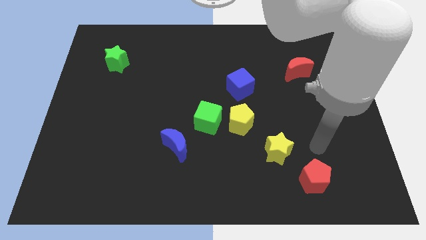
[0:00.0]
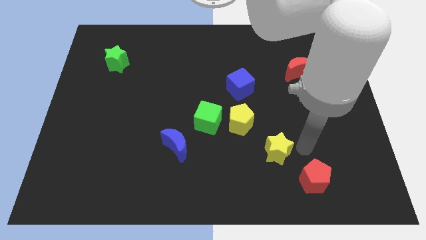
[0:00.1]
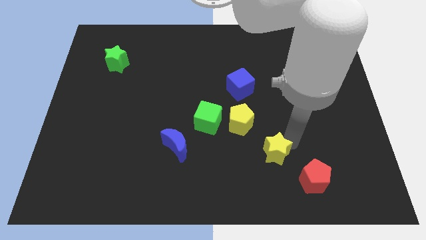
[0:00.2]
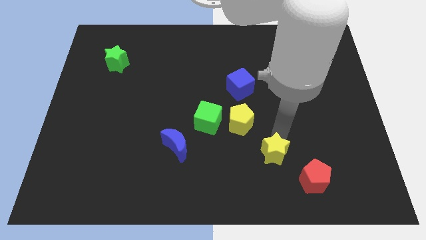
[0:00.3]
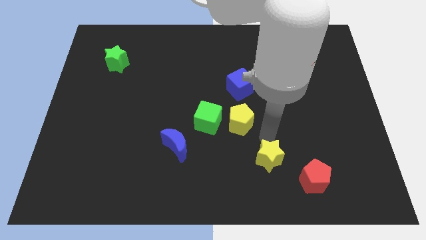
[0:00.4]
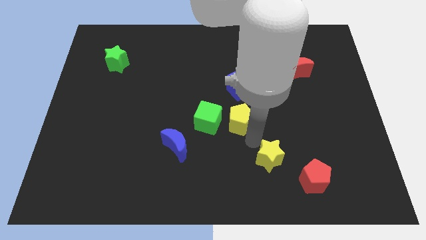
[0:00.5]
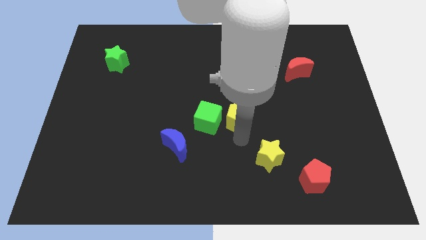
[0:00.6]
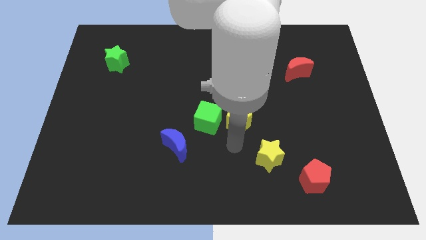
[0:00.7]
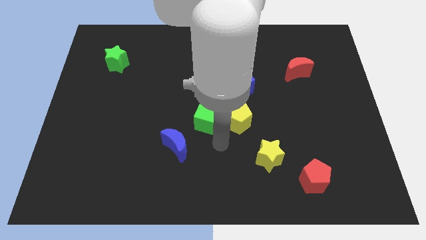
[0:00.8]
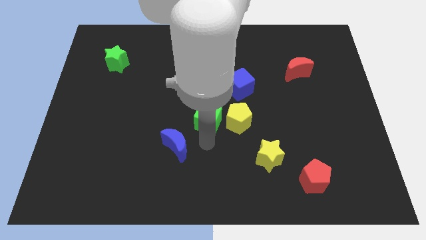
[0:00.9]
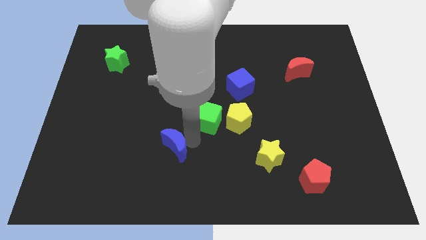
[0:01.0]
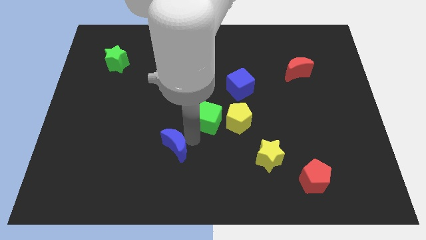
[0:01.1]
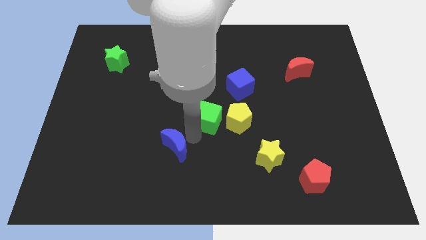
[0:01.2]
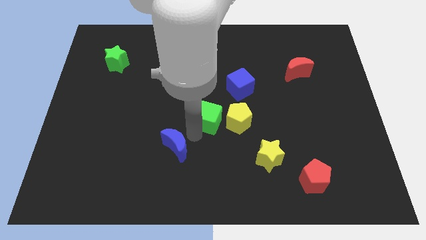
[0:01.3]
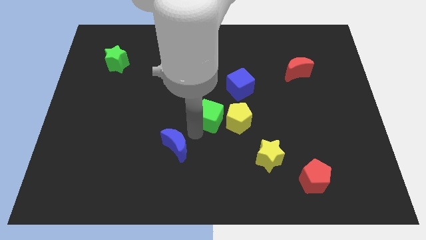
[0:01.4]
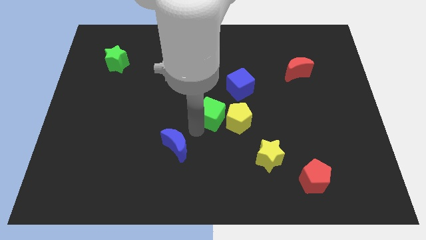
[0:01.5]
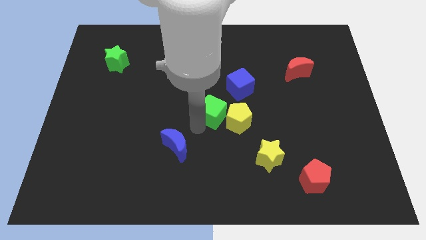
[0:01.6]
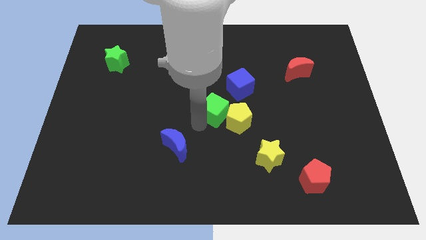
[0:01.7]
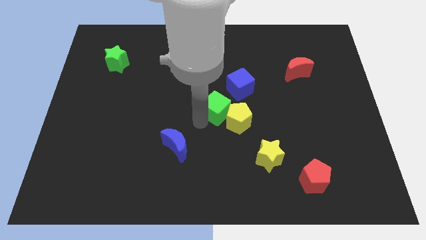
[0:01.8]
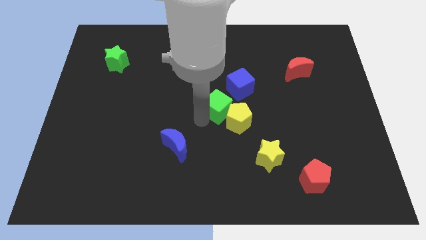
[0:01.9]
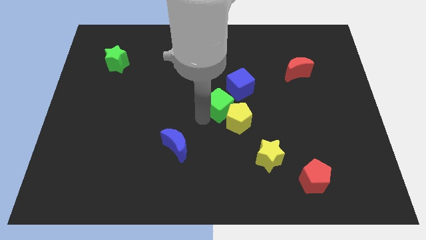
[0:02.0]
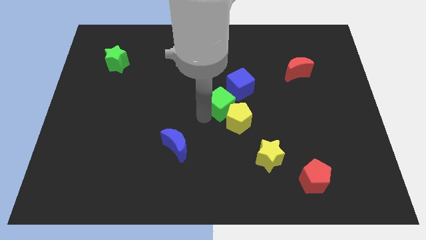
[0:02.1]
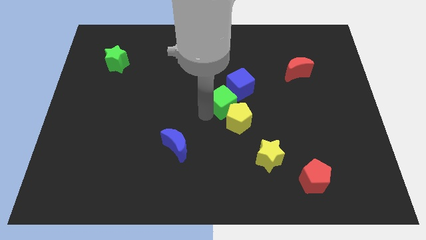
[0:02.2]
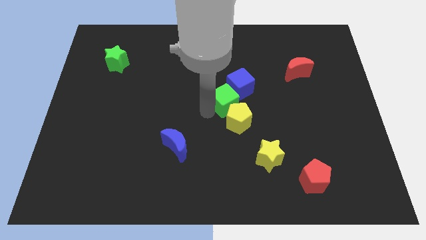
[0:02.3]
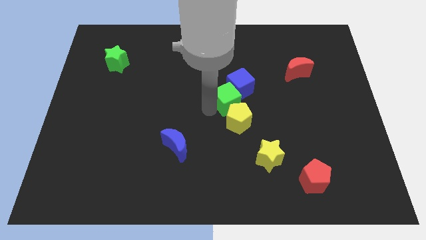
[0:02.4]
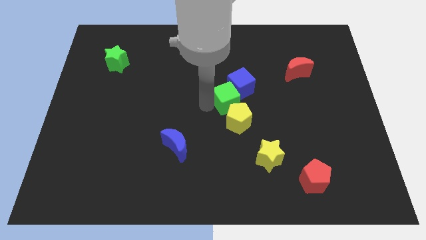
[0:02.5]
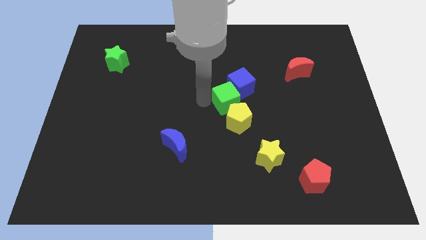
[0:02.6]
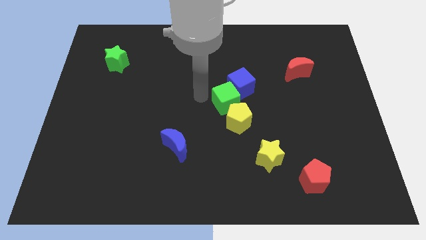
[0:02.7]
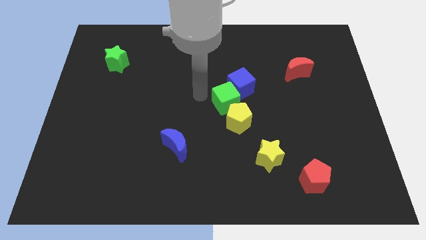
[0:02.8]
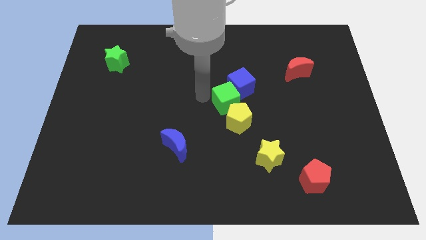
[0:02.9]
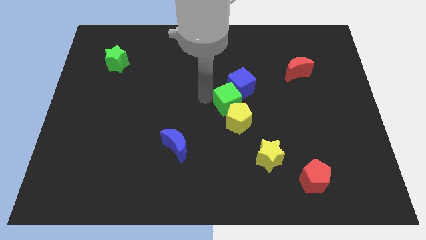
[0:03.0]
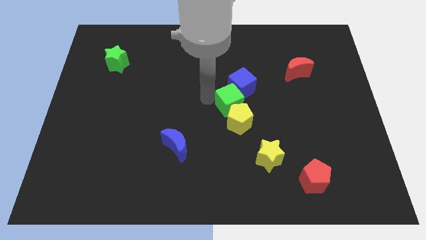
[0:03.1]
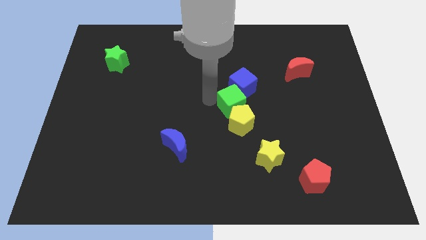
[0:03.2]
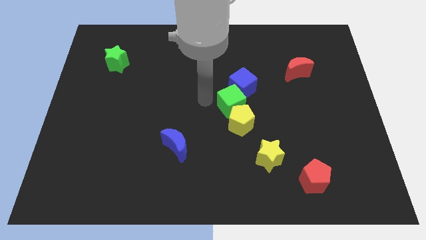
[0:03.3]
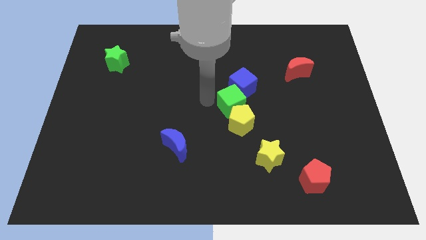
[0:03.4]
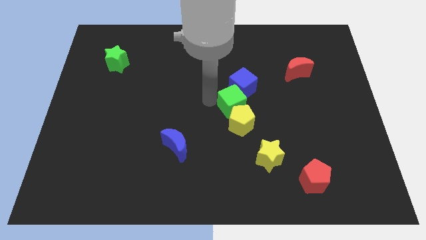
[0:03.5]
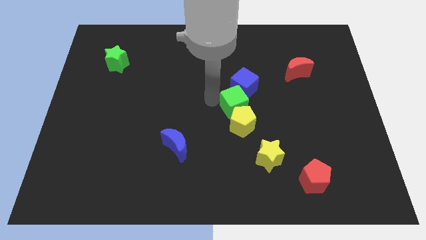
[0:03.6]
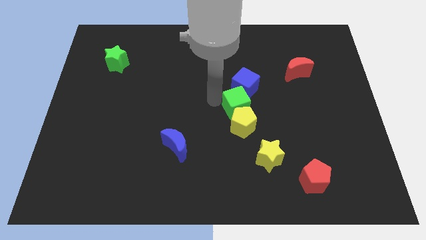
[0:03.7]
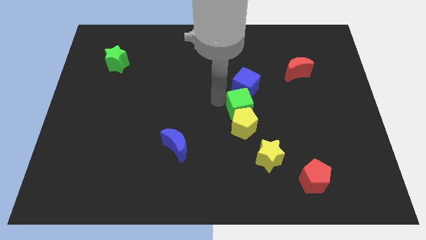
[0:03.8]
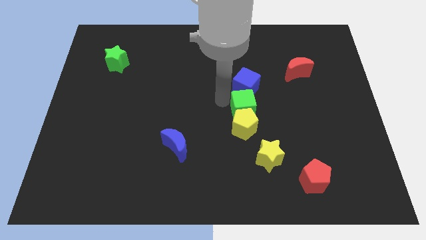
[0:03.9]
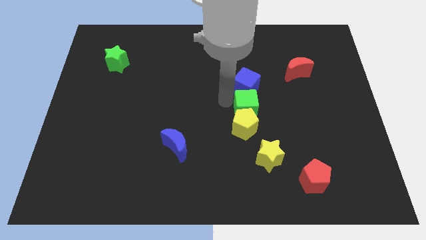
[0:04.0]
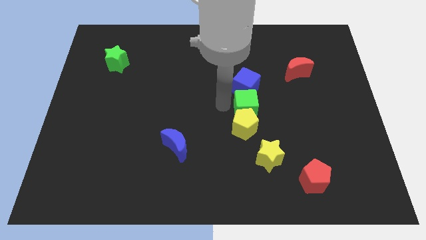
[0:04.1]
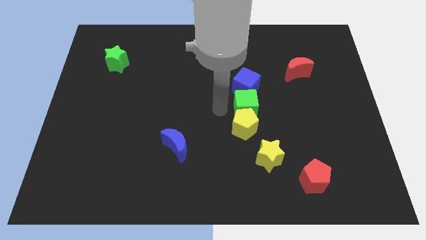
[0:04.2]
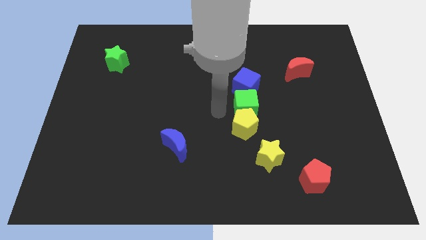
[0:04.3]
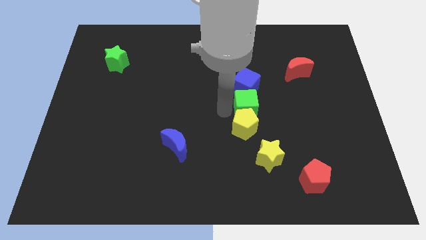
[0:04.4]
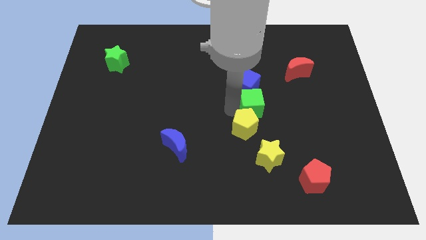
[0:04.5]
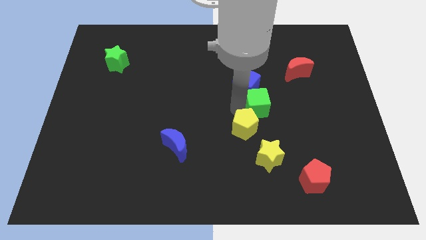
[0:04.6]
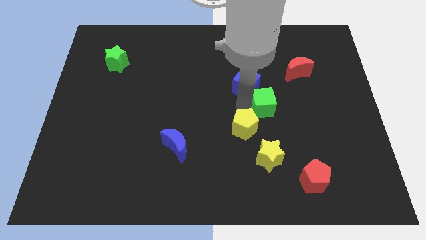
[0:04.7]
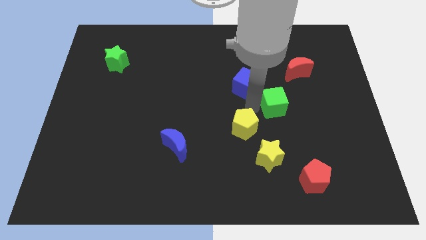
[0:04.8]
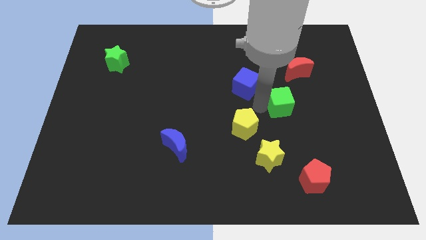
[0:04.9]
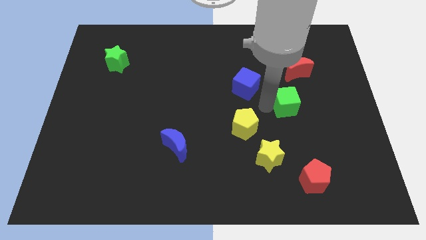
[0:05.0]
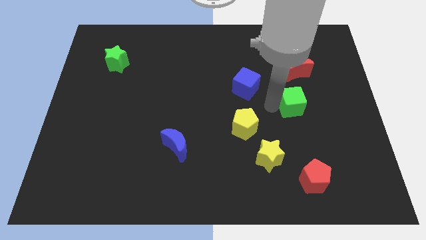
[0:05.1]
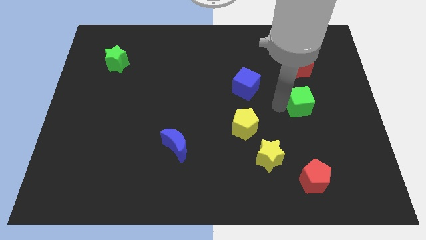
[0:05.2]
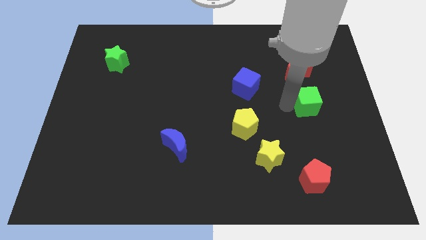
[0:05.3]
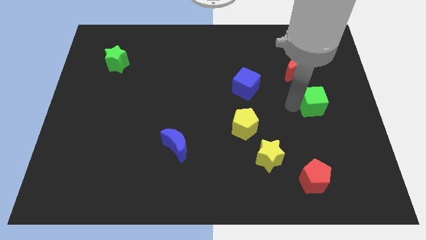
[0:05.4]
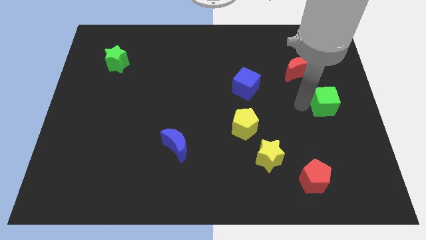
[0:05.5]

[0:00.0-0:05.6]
push the green cube to the right side
